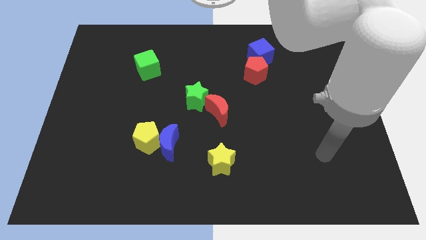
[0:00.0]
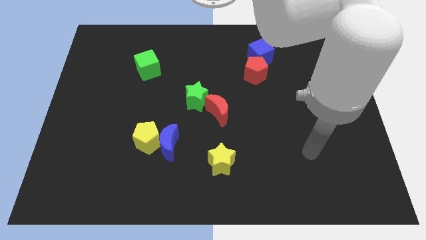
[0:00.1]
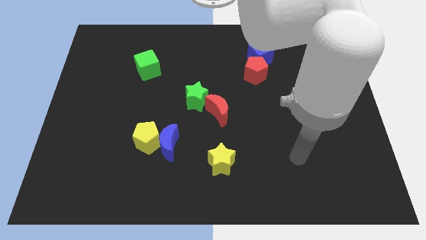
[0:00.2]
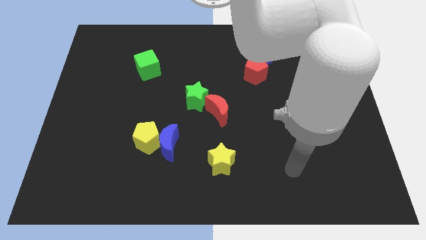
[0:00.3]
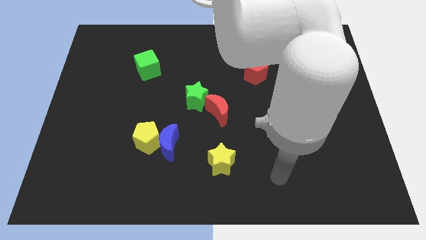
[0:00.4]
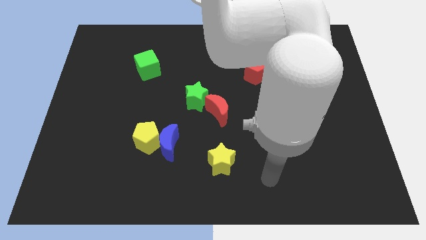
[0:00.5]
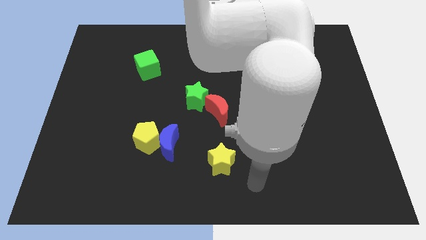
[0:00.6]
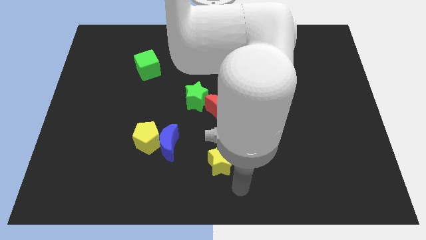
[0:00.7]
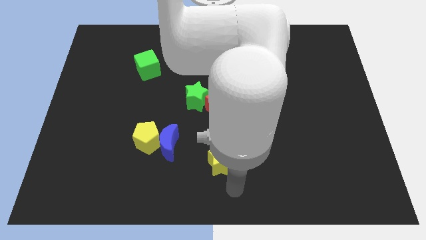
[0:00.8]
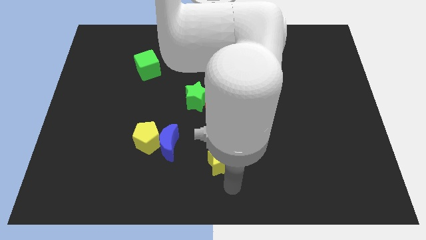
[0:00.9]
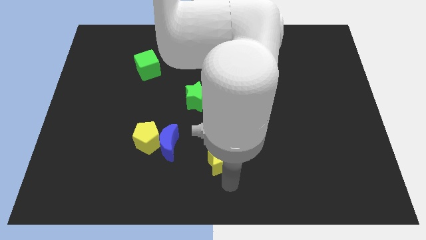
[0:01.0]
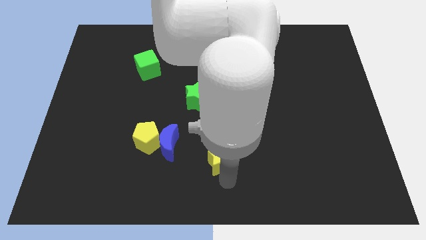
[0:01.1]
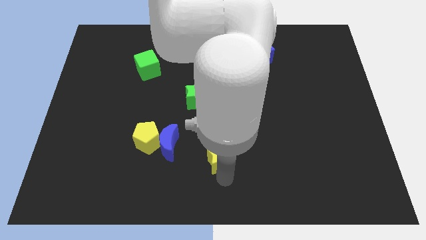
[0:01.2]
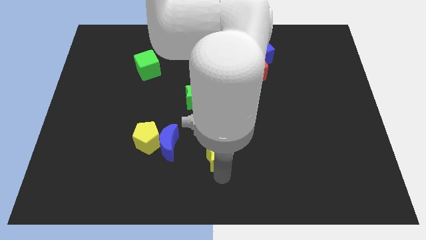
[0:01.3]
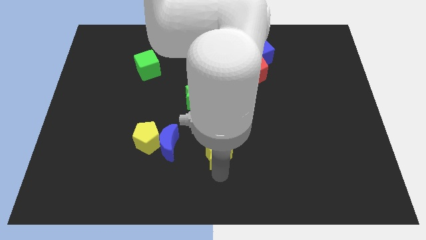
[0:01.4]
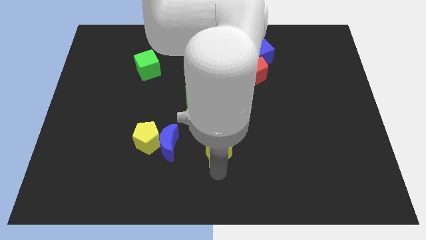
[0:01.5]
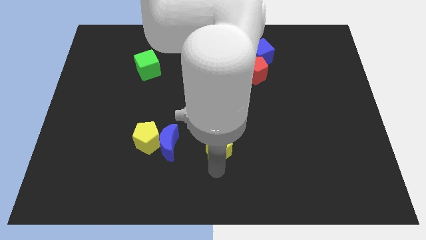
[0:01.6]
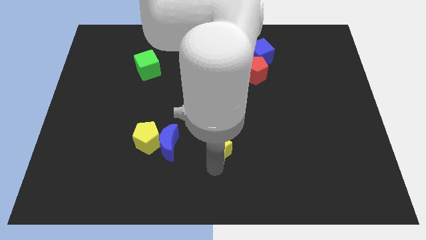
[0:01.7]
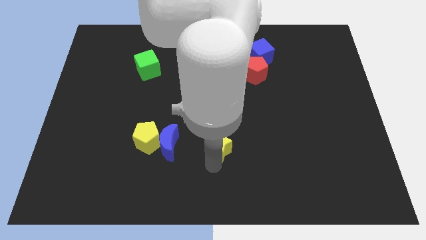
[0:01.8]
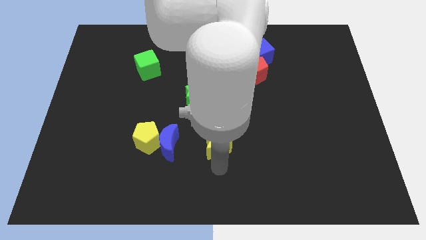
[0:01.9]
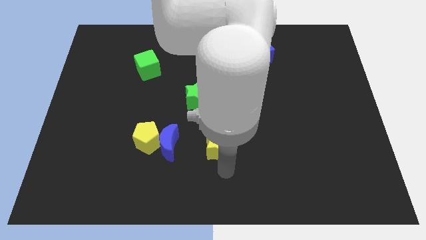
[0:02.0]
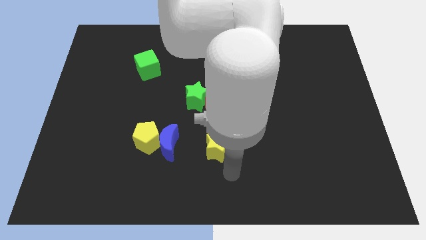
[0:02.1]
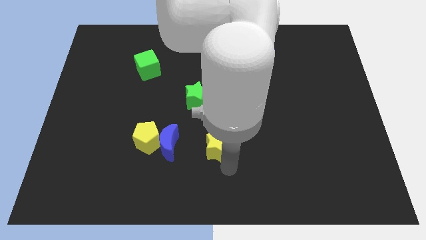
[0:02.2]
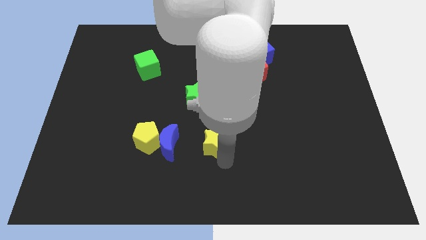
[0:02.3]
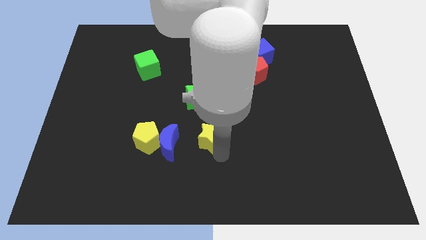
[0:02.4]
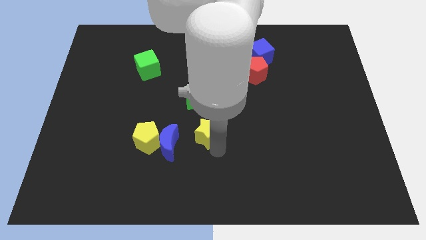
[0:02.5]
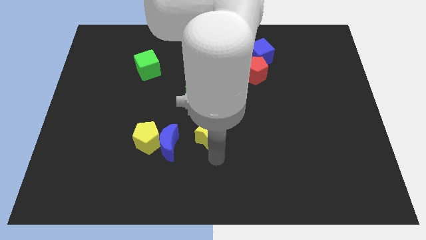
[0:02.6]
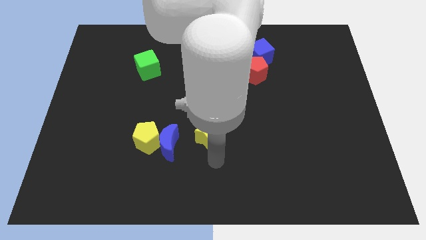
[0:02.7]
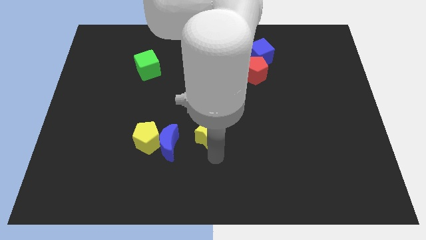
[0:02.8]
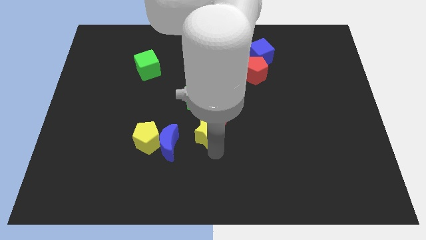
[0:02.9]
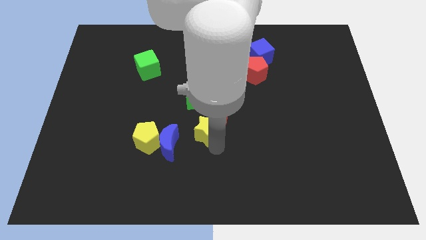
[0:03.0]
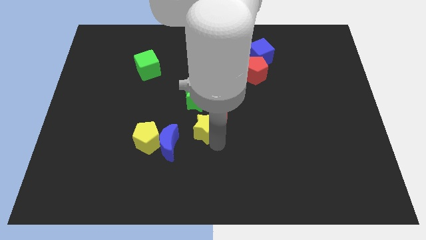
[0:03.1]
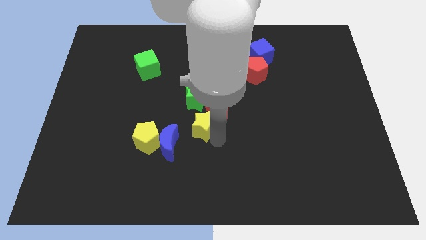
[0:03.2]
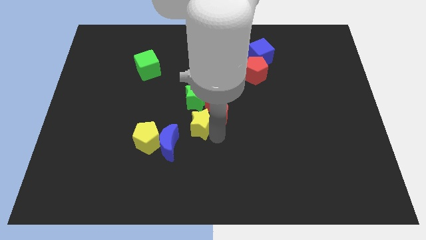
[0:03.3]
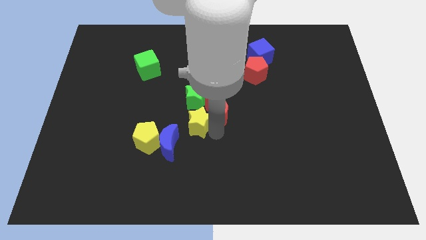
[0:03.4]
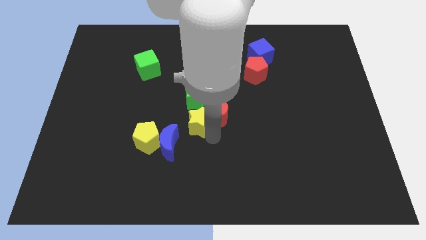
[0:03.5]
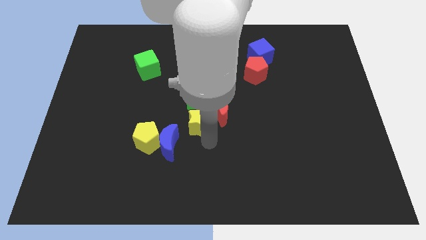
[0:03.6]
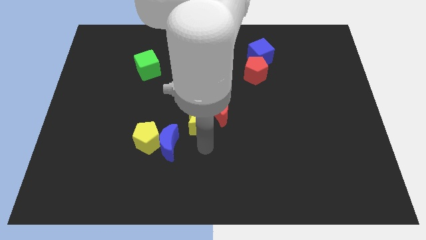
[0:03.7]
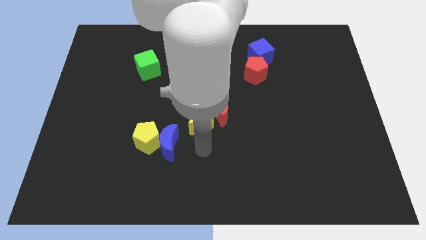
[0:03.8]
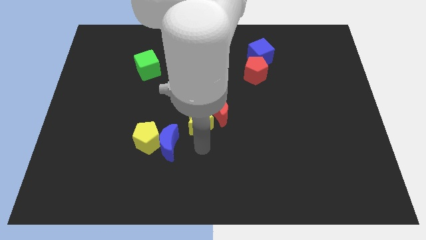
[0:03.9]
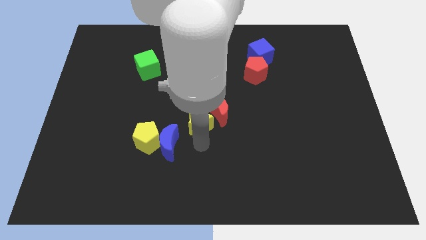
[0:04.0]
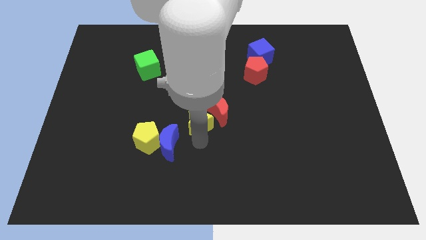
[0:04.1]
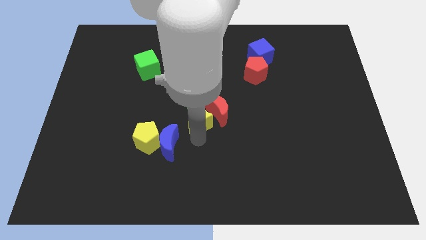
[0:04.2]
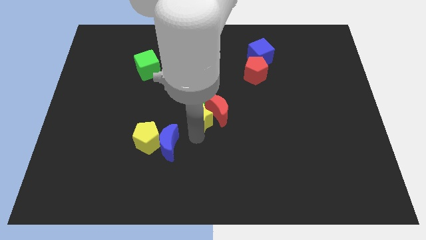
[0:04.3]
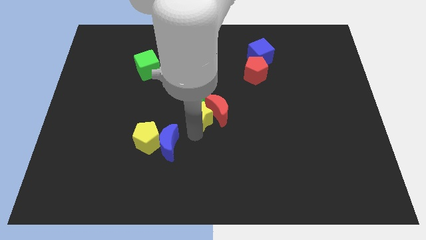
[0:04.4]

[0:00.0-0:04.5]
put the yellow star next to the green star

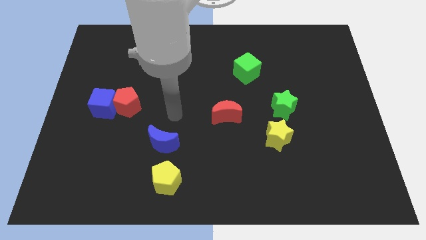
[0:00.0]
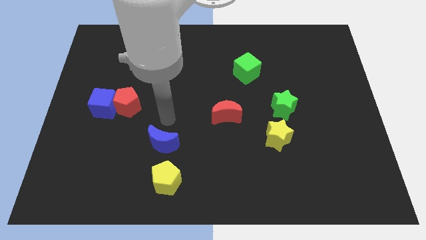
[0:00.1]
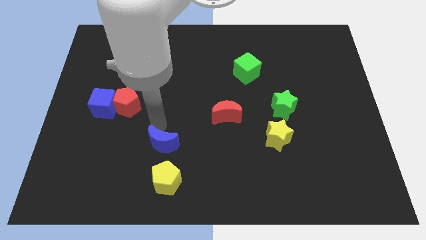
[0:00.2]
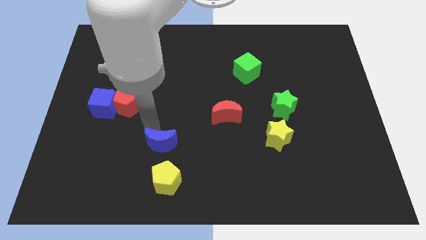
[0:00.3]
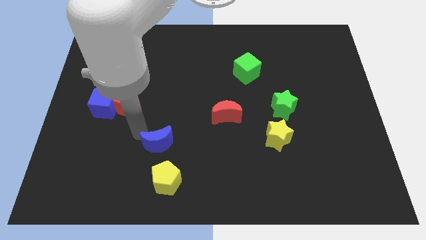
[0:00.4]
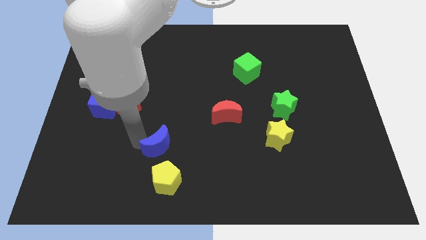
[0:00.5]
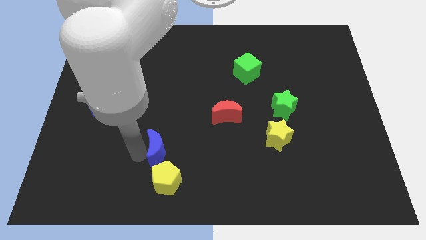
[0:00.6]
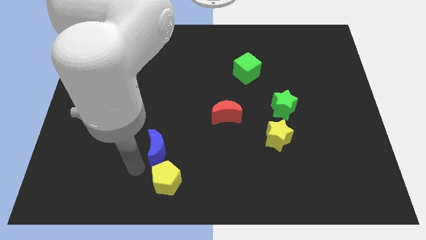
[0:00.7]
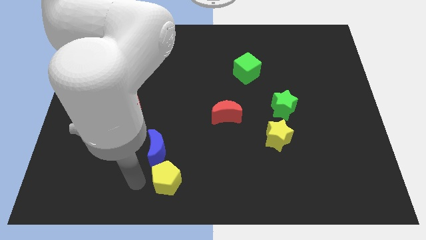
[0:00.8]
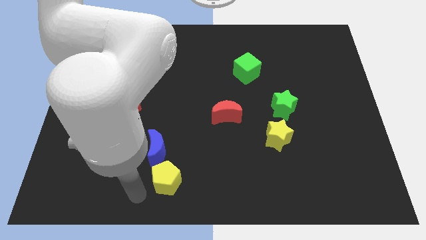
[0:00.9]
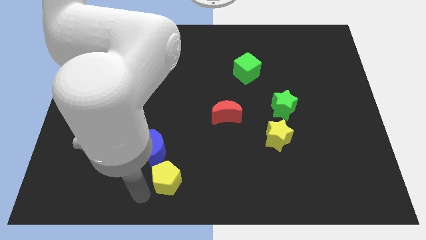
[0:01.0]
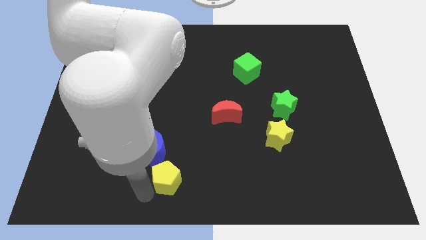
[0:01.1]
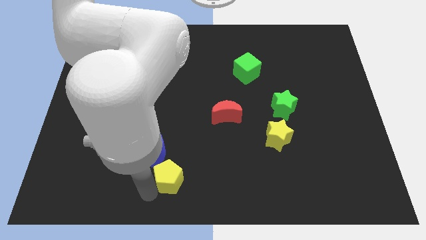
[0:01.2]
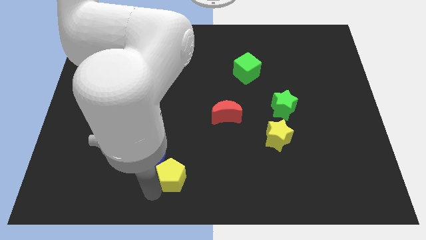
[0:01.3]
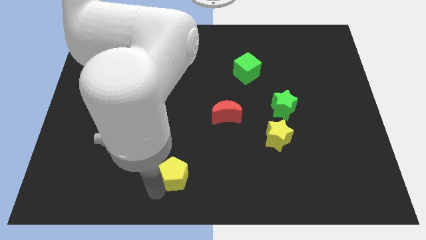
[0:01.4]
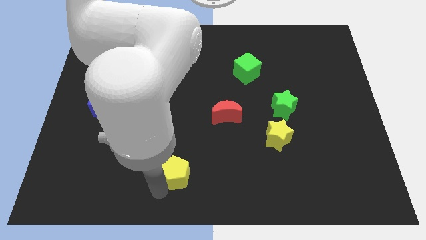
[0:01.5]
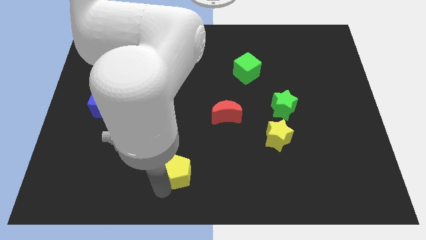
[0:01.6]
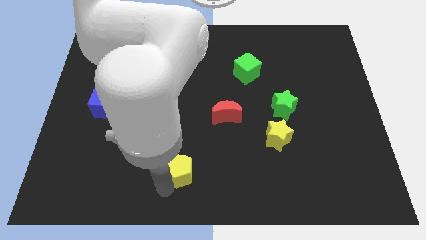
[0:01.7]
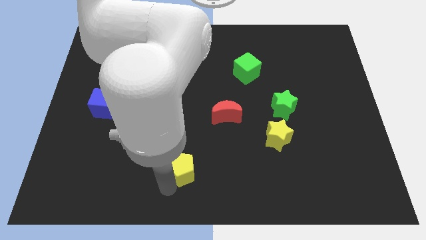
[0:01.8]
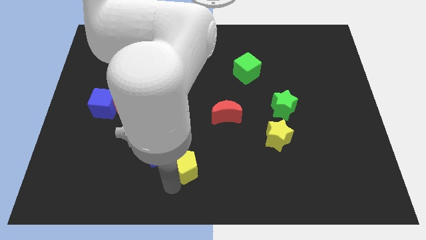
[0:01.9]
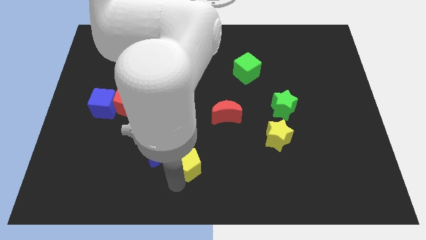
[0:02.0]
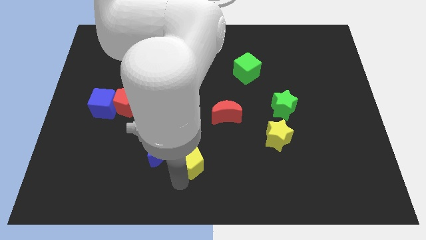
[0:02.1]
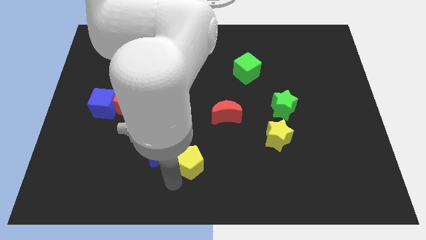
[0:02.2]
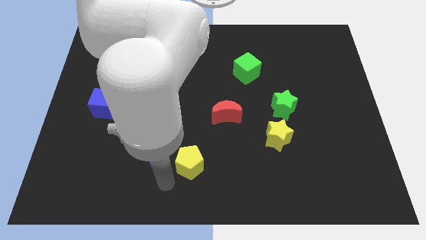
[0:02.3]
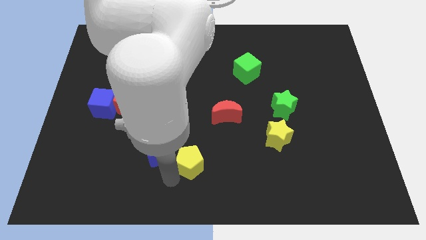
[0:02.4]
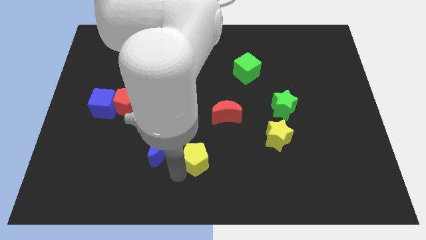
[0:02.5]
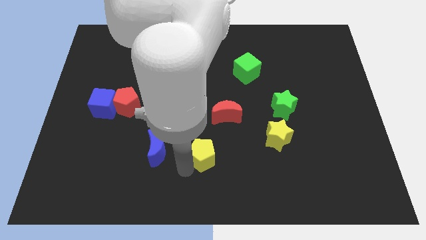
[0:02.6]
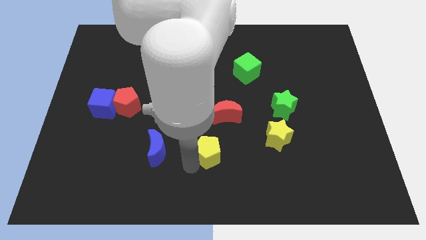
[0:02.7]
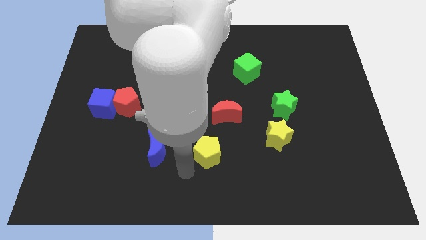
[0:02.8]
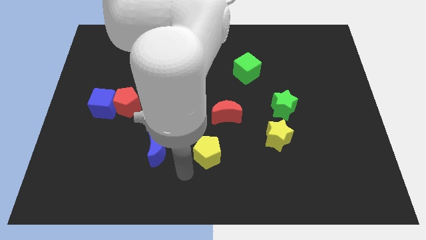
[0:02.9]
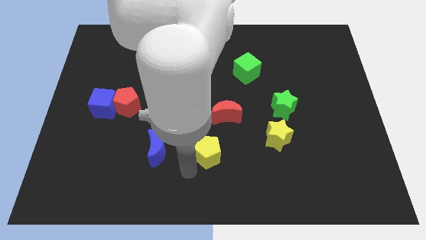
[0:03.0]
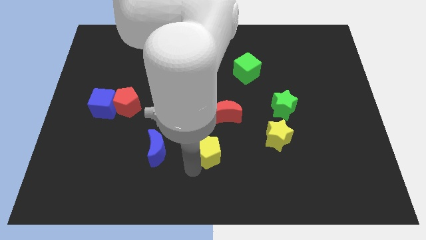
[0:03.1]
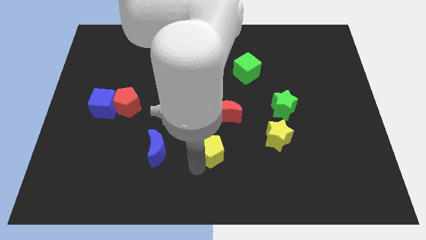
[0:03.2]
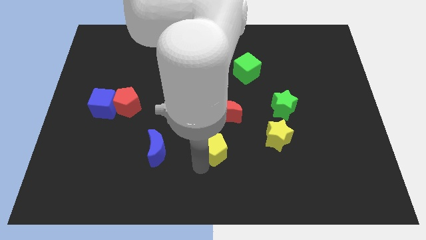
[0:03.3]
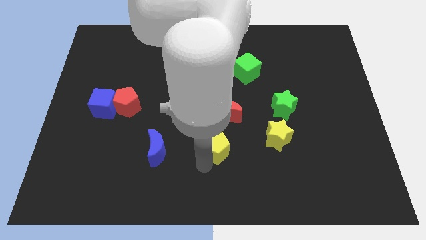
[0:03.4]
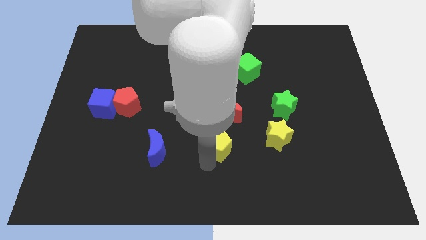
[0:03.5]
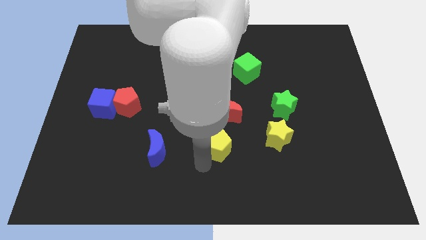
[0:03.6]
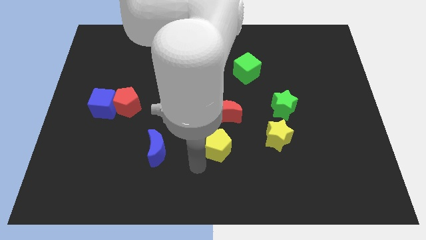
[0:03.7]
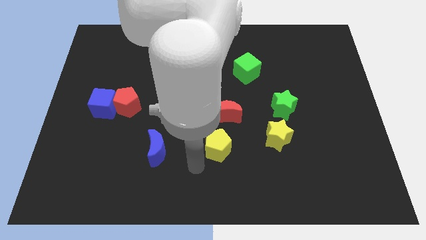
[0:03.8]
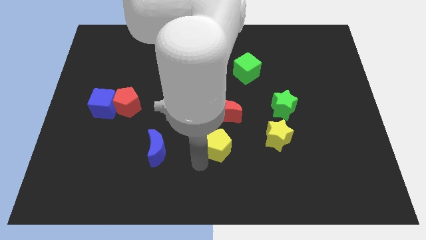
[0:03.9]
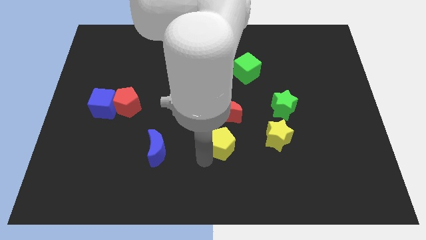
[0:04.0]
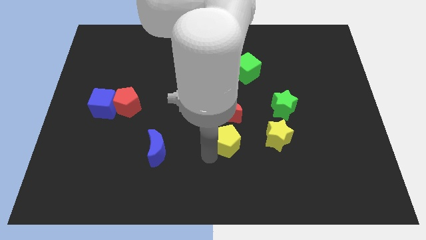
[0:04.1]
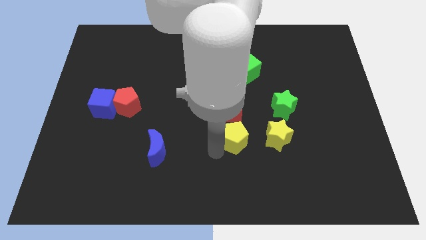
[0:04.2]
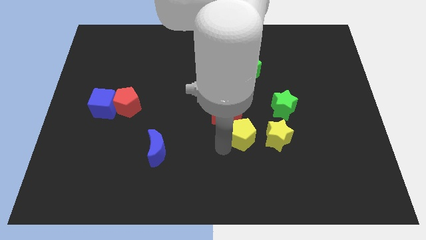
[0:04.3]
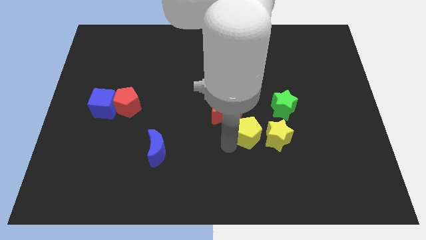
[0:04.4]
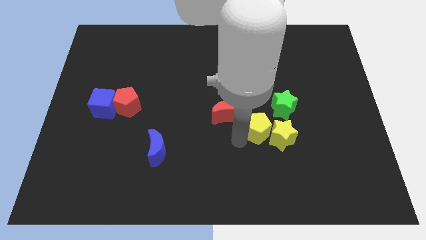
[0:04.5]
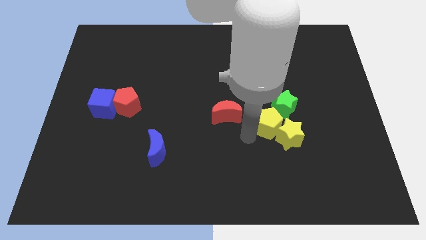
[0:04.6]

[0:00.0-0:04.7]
move the yellow pentagon next to the green star
